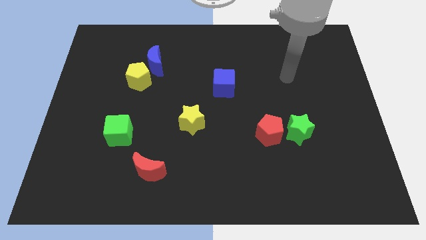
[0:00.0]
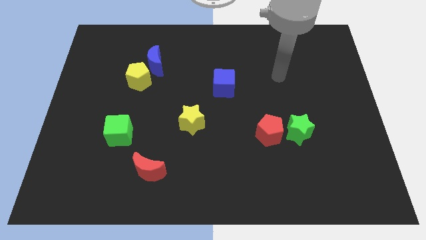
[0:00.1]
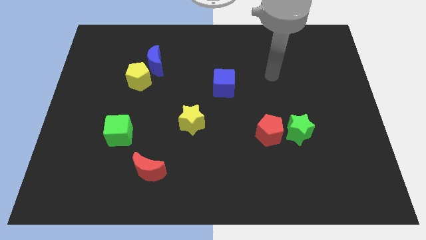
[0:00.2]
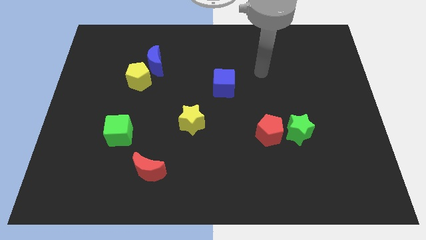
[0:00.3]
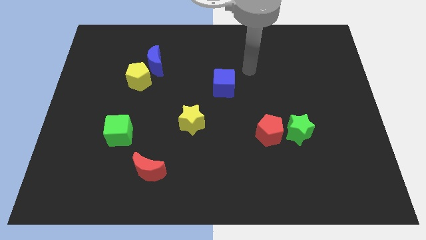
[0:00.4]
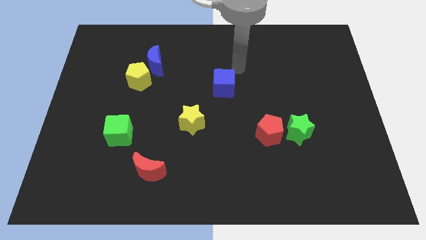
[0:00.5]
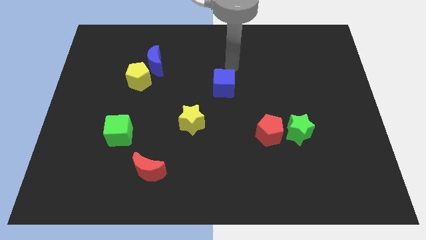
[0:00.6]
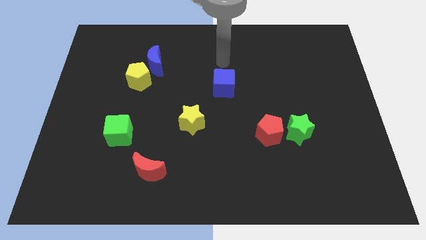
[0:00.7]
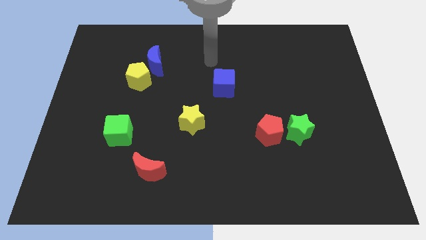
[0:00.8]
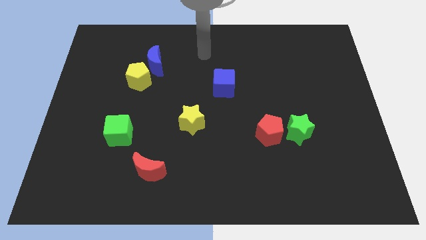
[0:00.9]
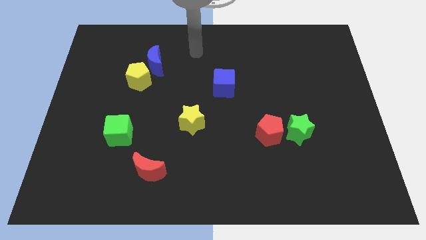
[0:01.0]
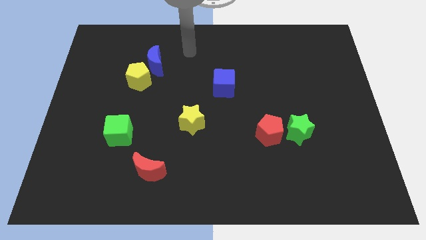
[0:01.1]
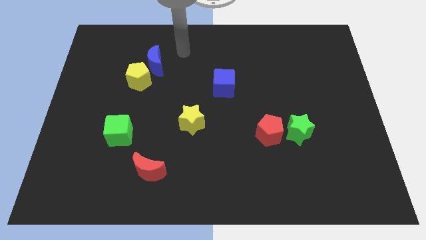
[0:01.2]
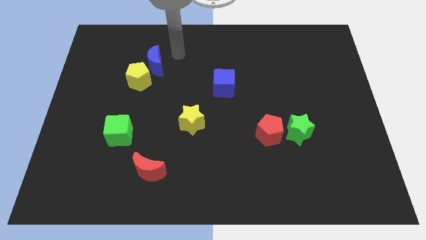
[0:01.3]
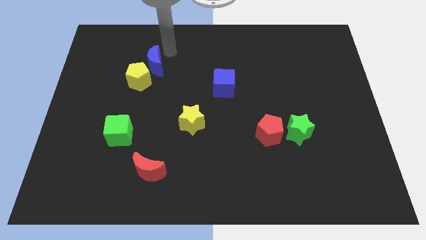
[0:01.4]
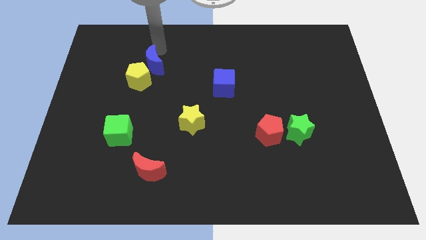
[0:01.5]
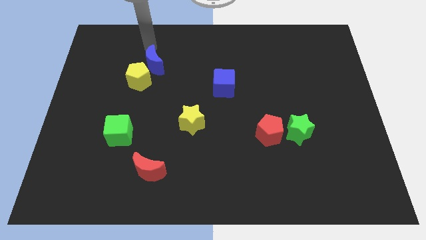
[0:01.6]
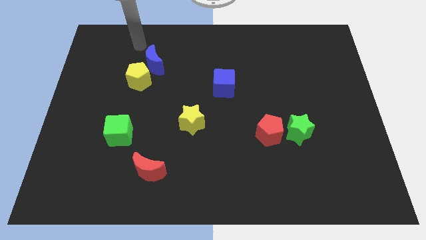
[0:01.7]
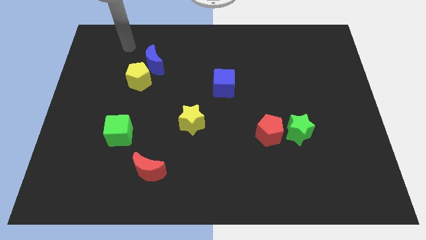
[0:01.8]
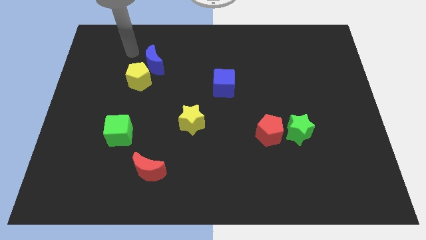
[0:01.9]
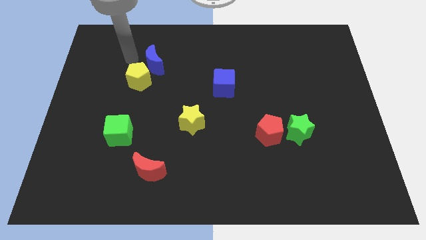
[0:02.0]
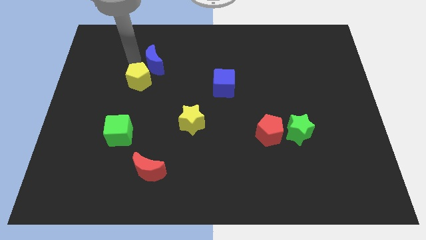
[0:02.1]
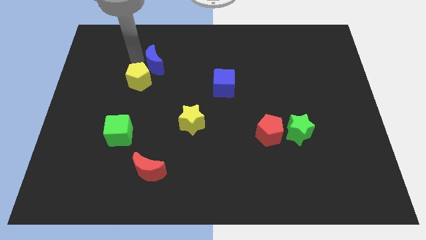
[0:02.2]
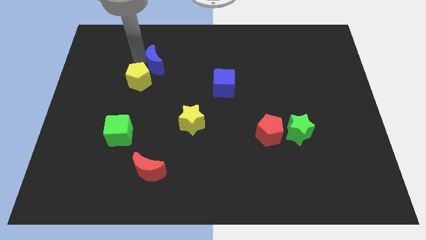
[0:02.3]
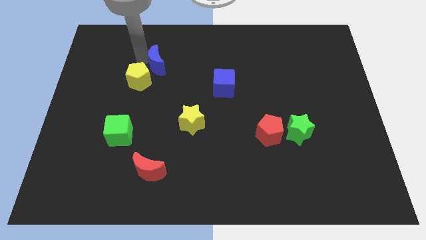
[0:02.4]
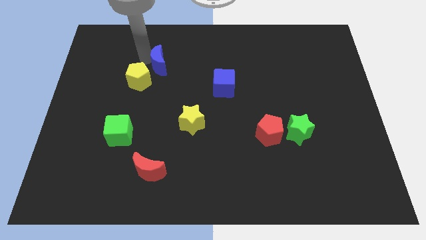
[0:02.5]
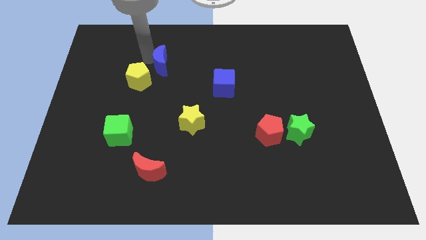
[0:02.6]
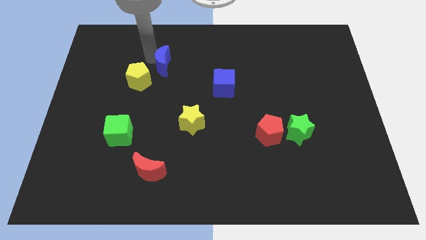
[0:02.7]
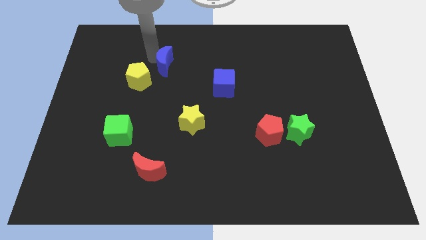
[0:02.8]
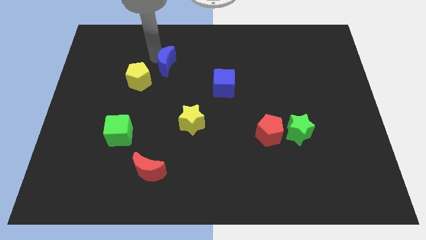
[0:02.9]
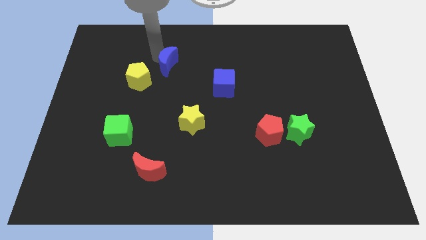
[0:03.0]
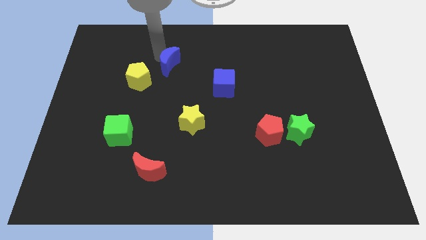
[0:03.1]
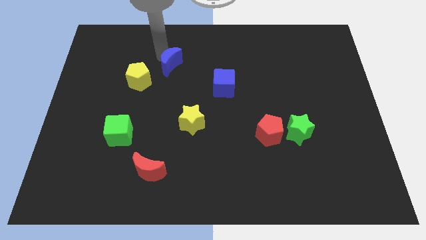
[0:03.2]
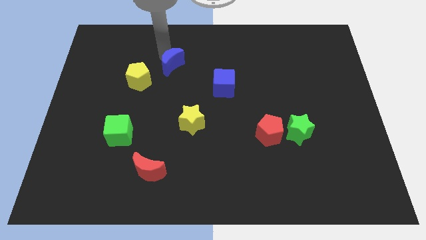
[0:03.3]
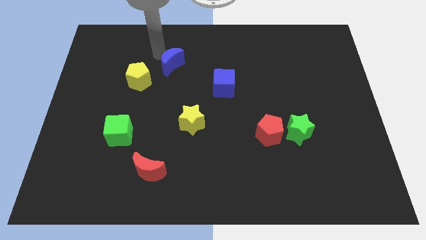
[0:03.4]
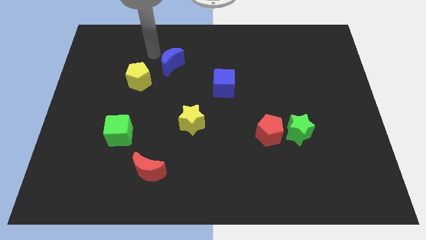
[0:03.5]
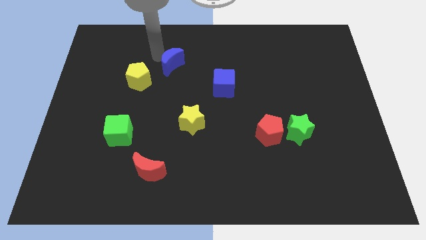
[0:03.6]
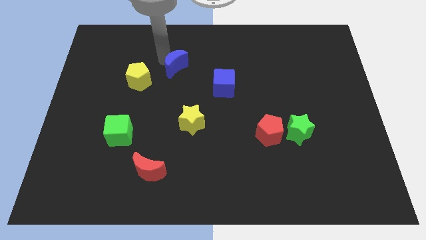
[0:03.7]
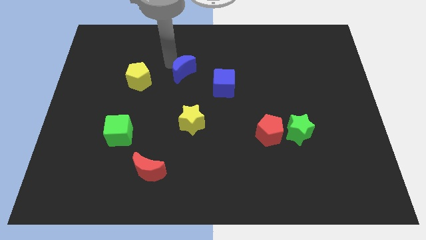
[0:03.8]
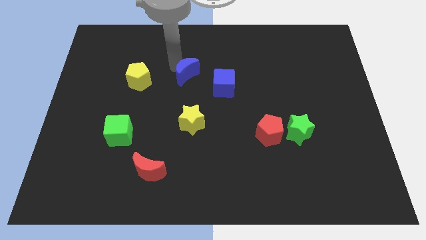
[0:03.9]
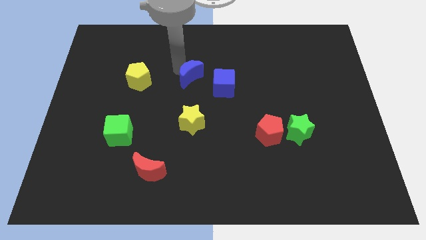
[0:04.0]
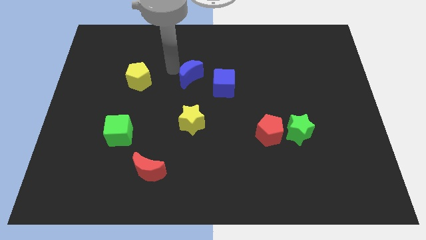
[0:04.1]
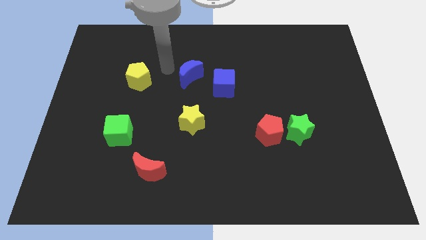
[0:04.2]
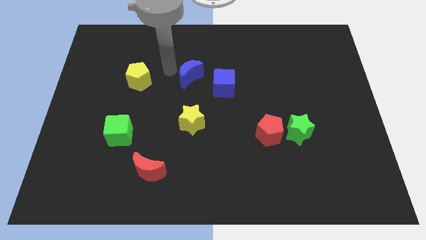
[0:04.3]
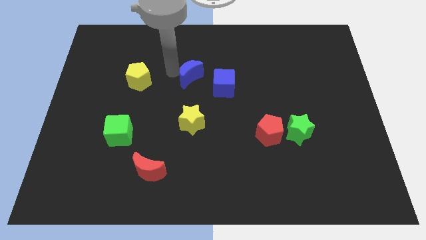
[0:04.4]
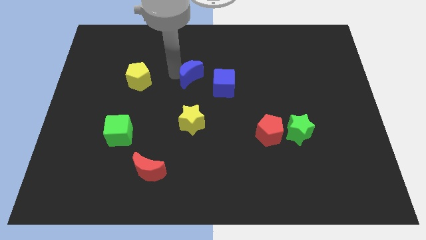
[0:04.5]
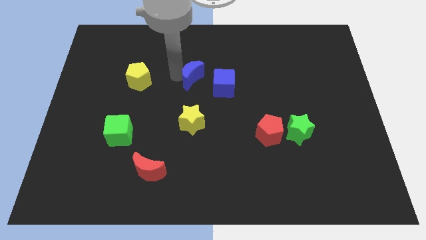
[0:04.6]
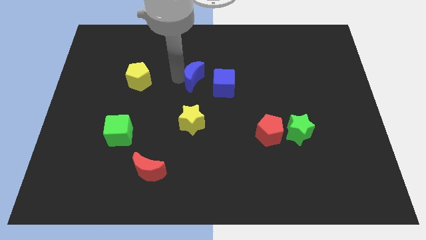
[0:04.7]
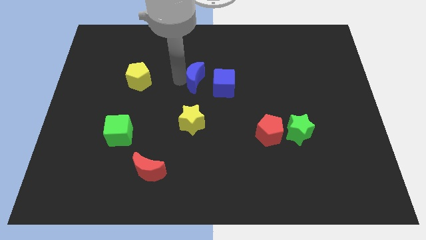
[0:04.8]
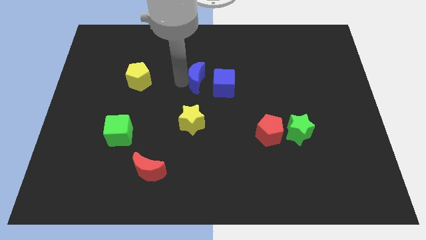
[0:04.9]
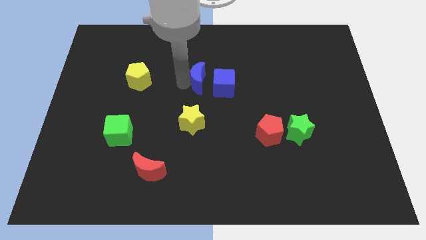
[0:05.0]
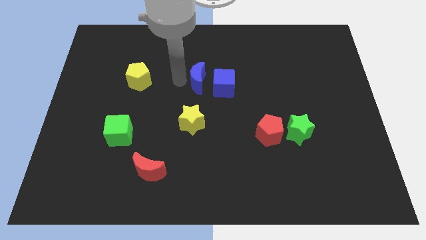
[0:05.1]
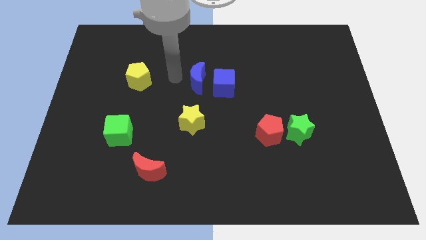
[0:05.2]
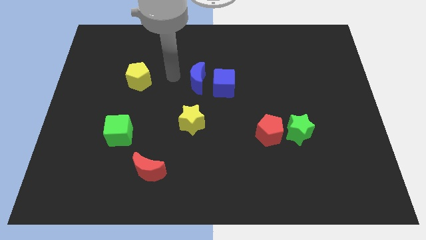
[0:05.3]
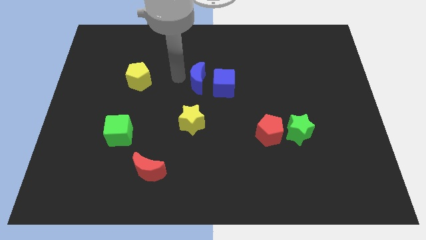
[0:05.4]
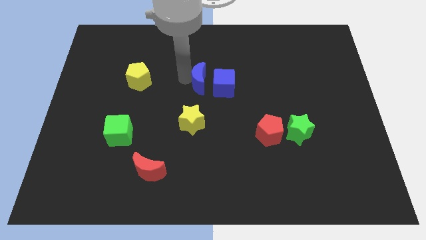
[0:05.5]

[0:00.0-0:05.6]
slide the blue moon close to the blue cube

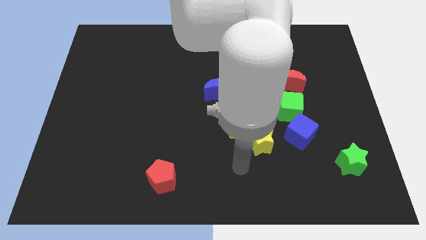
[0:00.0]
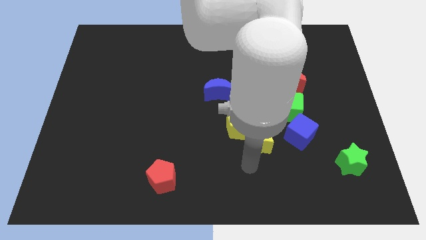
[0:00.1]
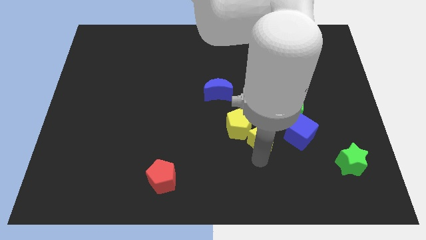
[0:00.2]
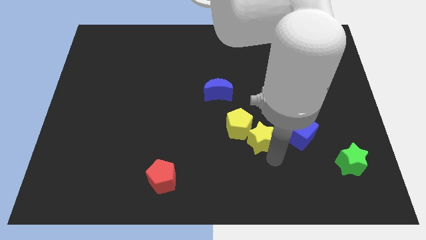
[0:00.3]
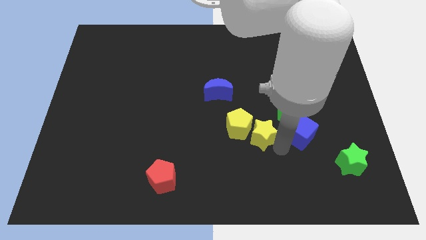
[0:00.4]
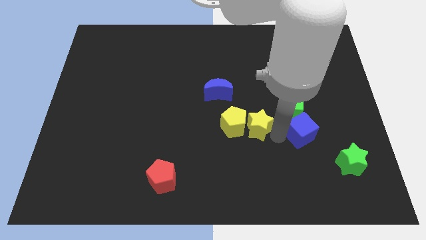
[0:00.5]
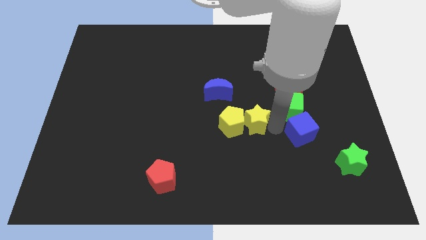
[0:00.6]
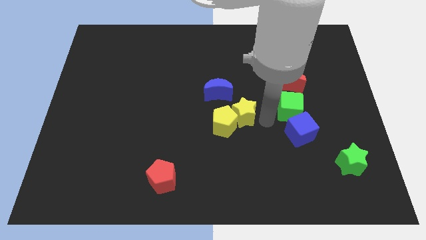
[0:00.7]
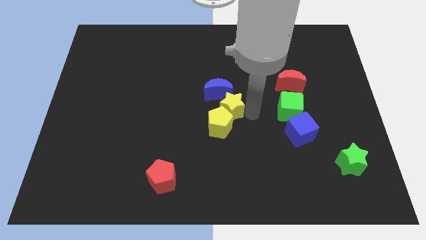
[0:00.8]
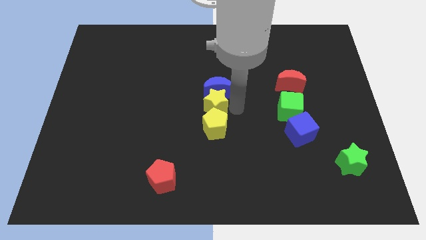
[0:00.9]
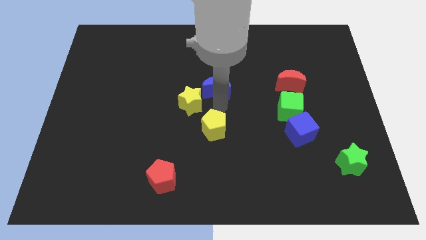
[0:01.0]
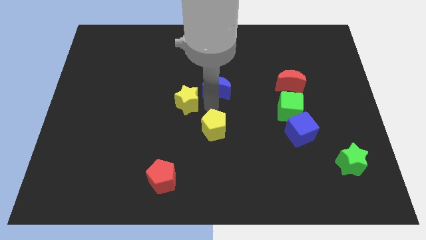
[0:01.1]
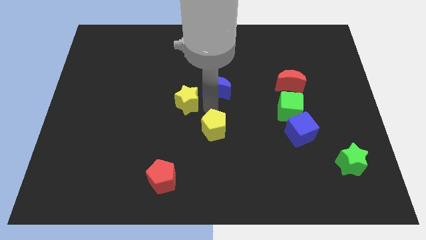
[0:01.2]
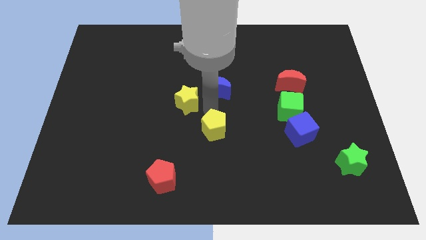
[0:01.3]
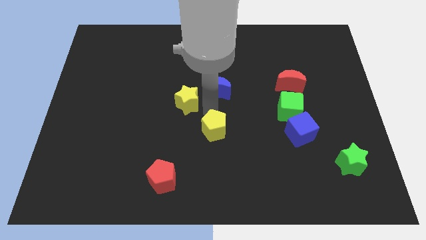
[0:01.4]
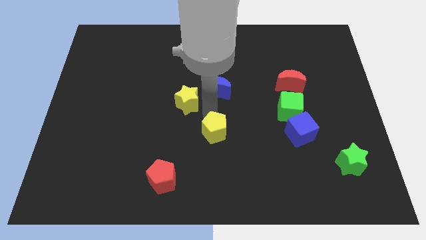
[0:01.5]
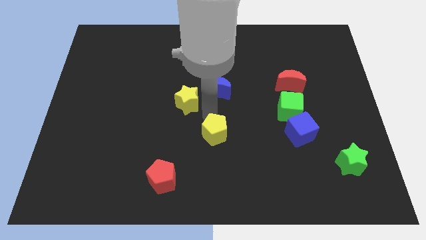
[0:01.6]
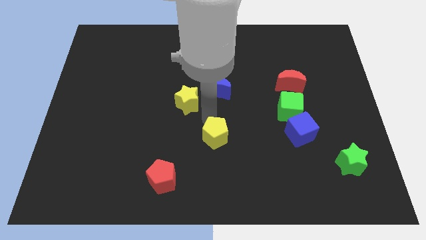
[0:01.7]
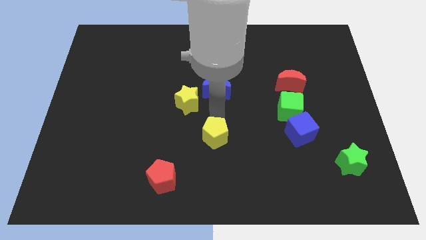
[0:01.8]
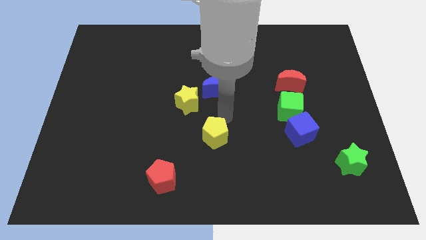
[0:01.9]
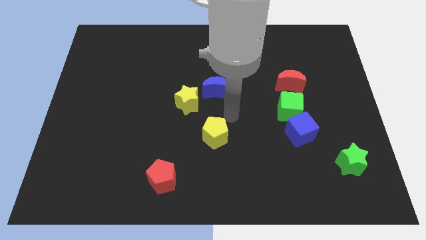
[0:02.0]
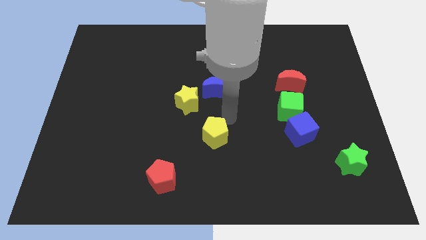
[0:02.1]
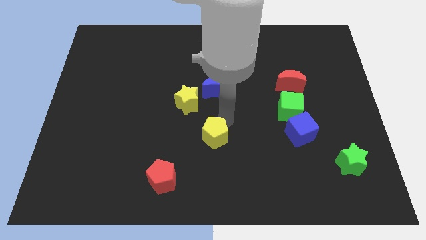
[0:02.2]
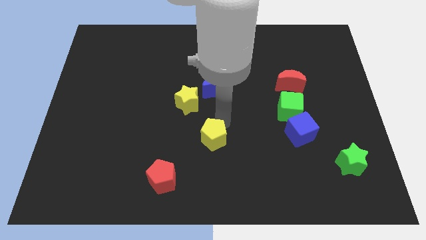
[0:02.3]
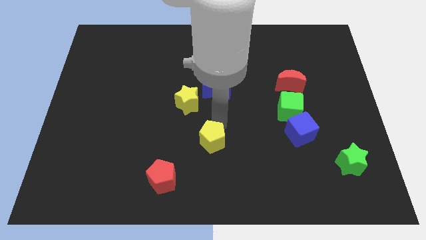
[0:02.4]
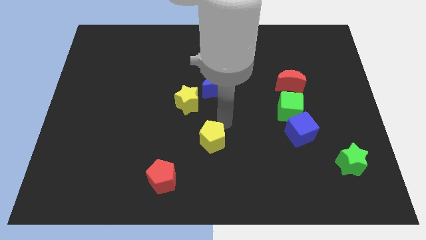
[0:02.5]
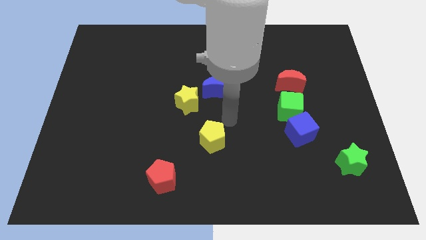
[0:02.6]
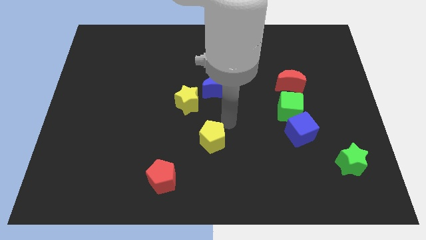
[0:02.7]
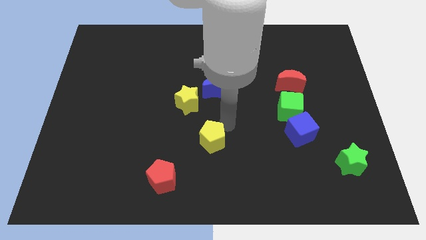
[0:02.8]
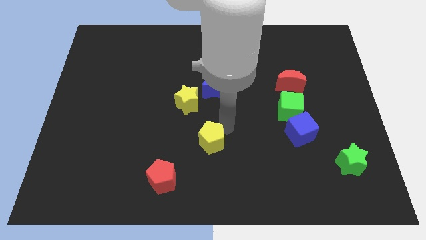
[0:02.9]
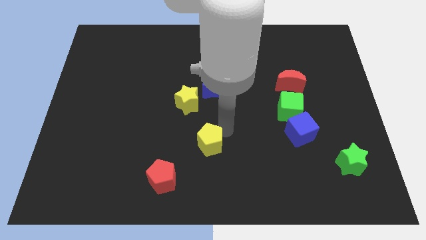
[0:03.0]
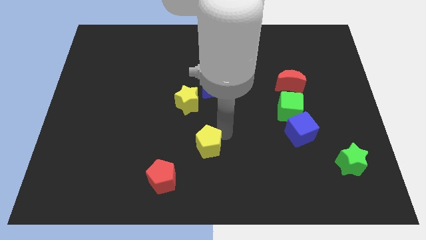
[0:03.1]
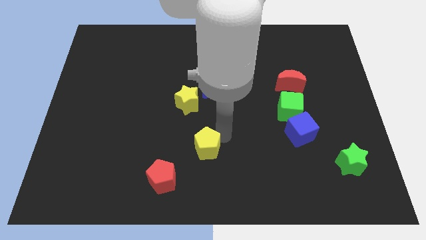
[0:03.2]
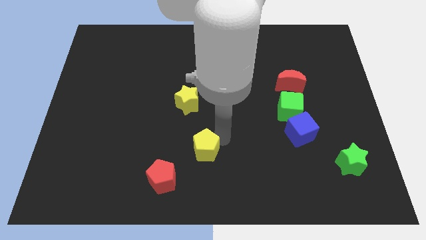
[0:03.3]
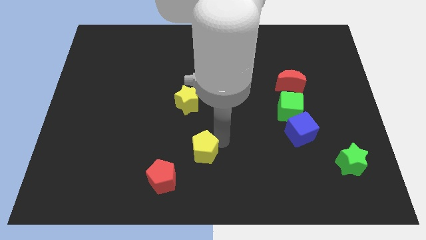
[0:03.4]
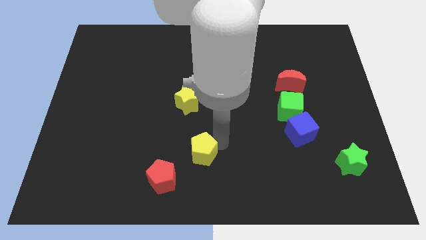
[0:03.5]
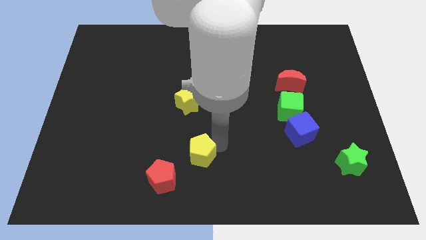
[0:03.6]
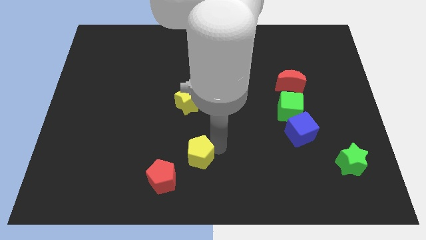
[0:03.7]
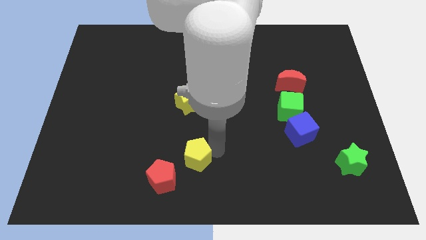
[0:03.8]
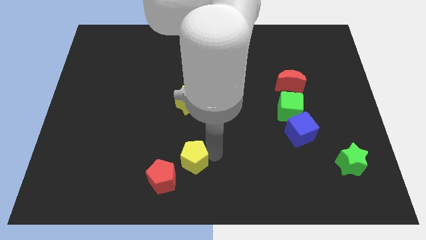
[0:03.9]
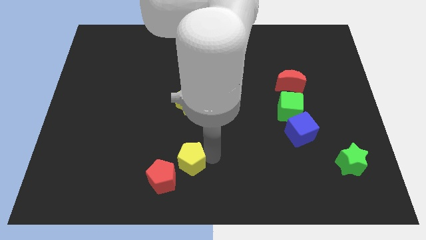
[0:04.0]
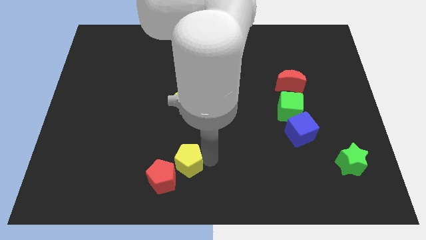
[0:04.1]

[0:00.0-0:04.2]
push the yellow pentagon close to the red pentagon
